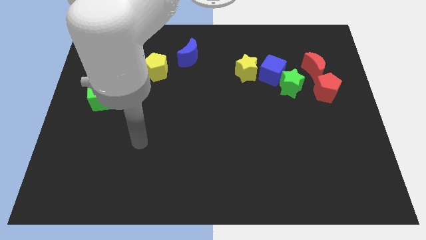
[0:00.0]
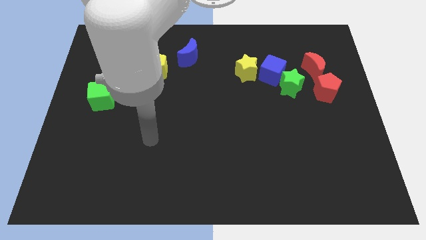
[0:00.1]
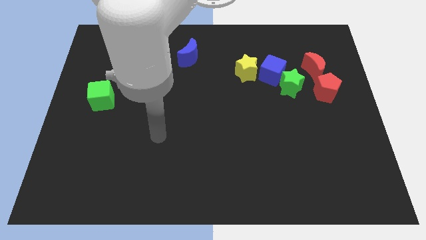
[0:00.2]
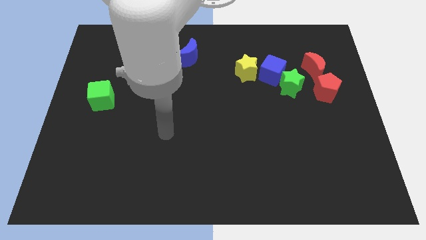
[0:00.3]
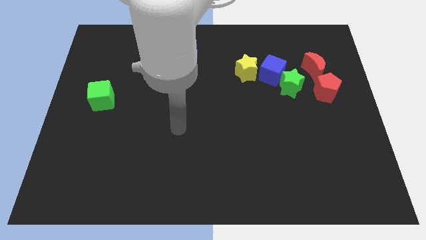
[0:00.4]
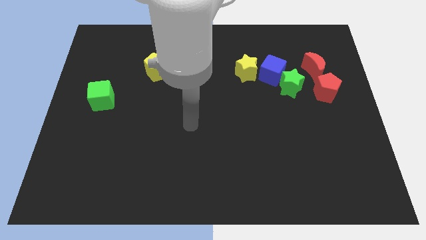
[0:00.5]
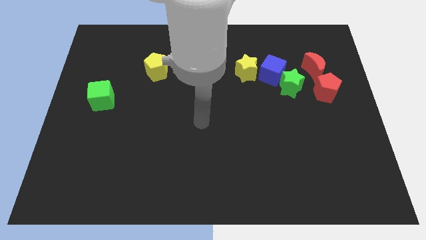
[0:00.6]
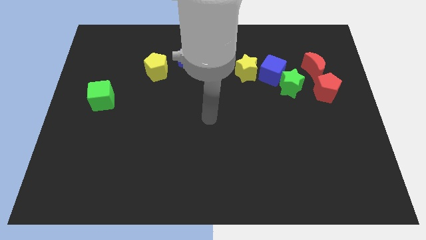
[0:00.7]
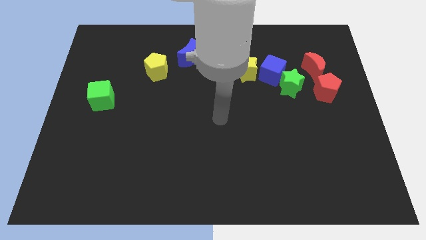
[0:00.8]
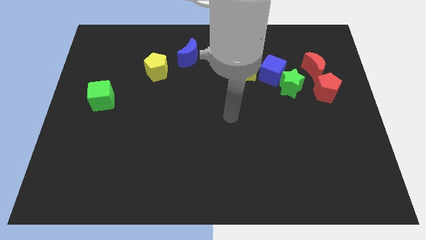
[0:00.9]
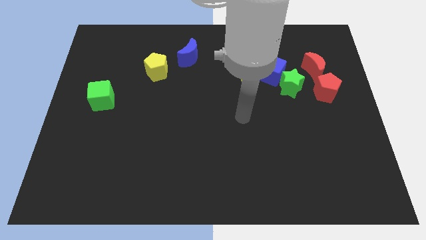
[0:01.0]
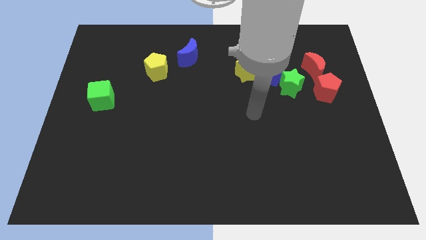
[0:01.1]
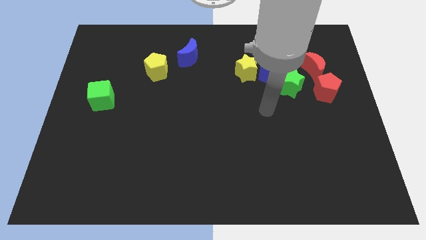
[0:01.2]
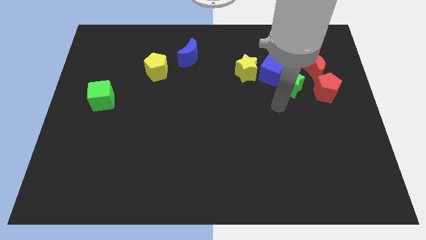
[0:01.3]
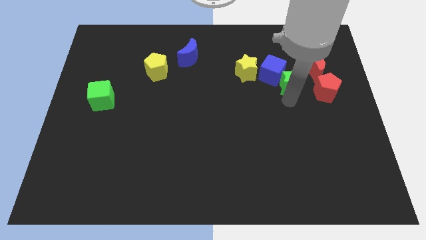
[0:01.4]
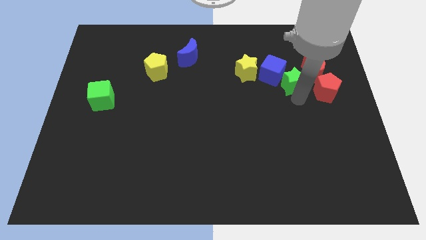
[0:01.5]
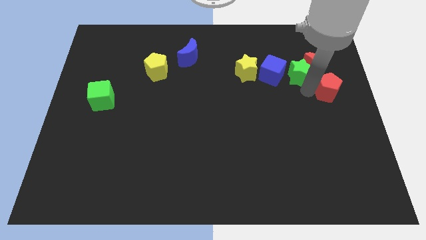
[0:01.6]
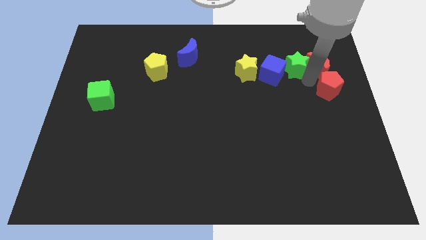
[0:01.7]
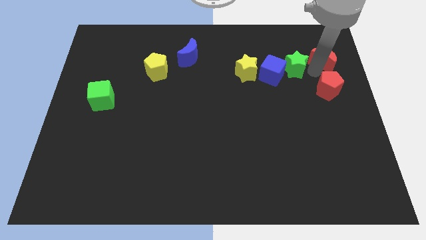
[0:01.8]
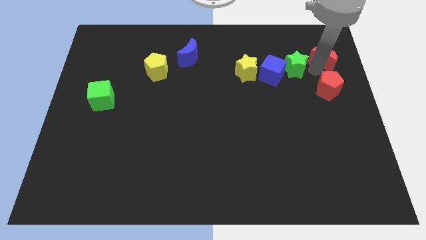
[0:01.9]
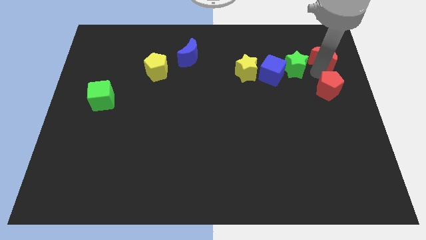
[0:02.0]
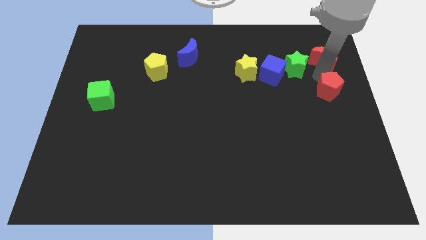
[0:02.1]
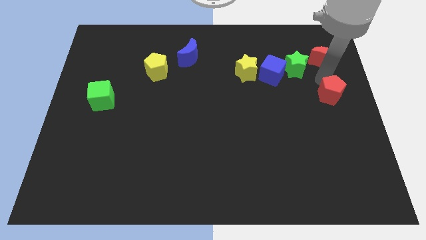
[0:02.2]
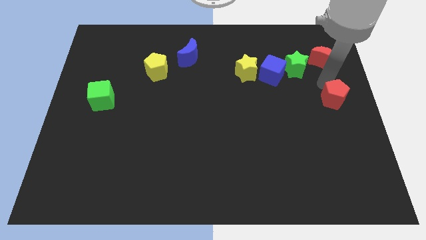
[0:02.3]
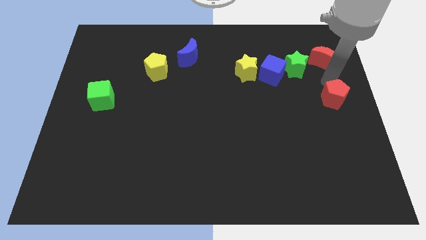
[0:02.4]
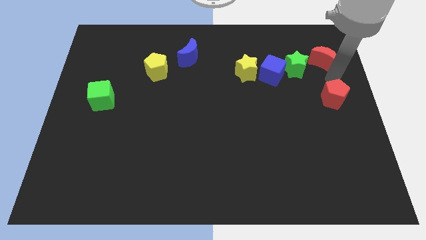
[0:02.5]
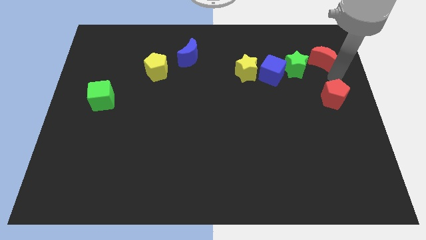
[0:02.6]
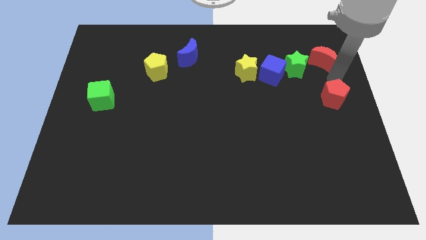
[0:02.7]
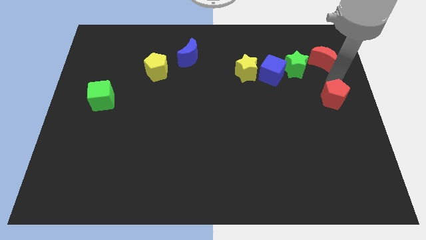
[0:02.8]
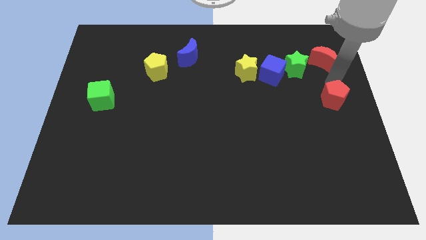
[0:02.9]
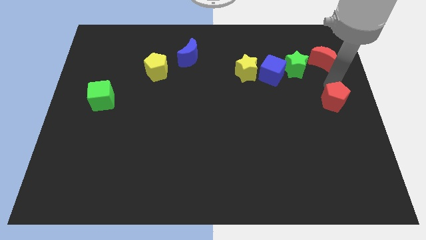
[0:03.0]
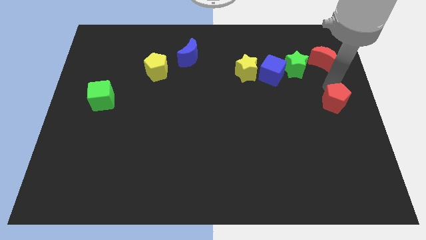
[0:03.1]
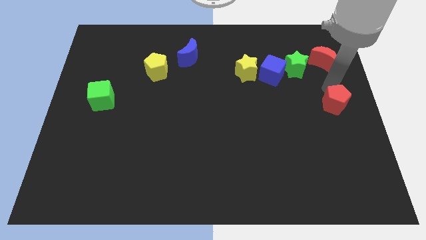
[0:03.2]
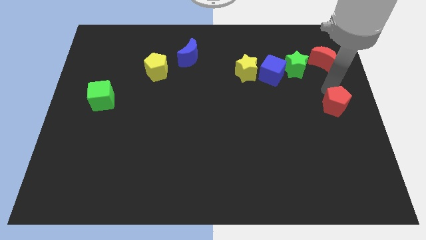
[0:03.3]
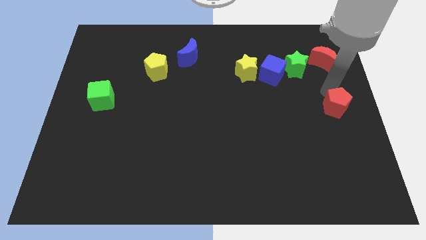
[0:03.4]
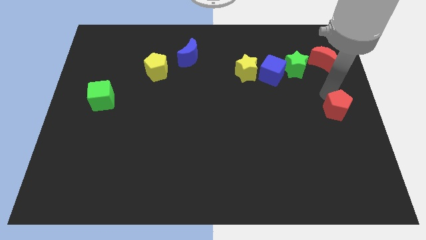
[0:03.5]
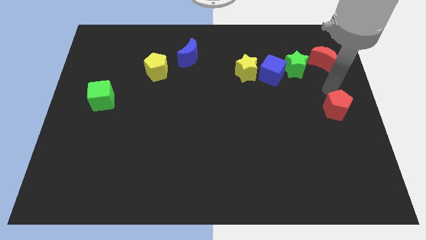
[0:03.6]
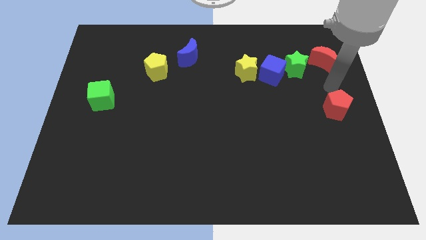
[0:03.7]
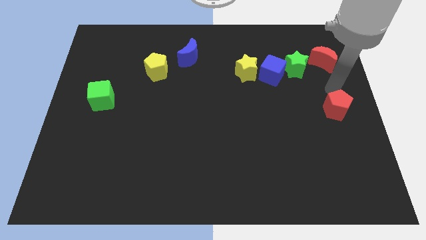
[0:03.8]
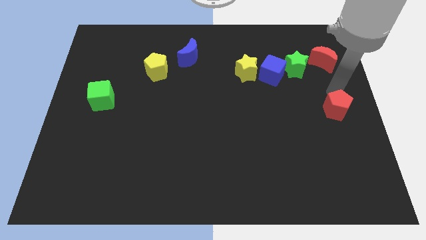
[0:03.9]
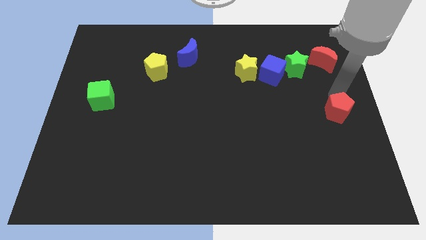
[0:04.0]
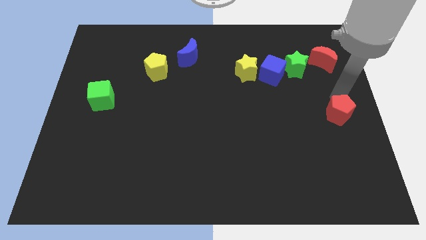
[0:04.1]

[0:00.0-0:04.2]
push the red pentagon a bit down

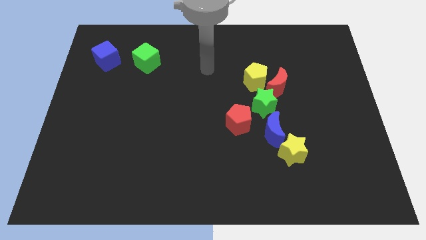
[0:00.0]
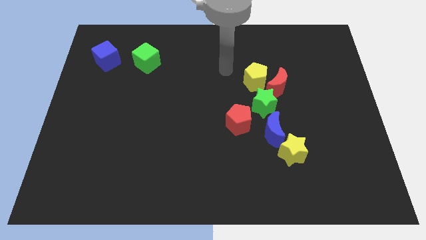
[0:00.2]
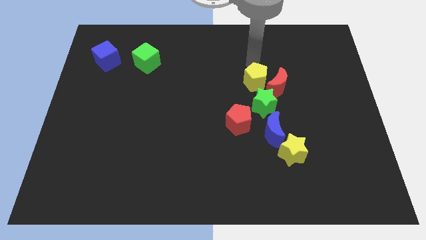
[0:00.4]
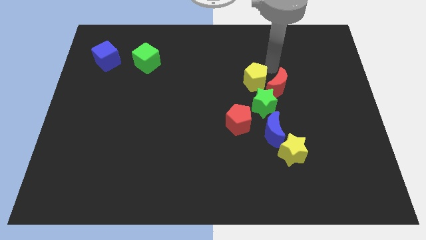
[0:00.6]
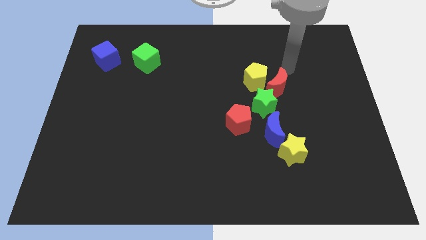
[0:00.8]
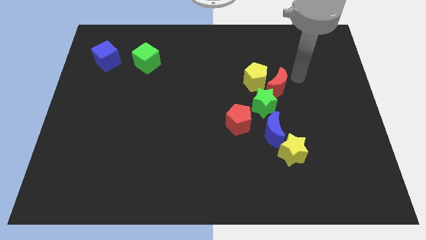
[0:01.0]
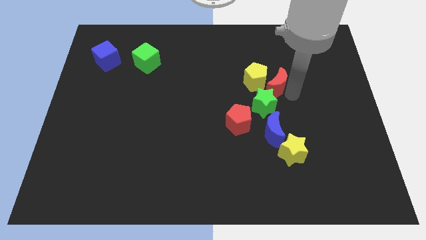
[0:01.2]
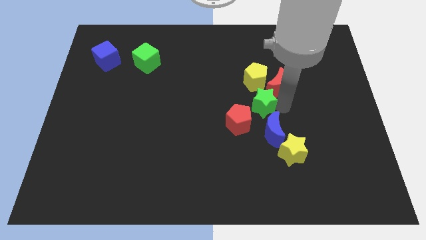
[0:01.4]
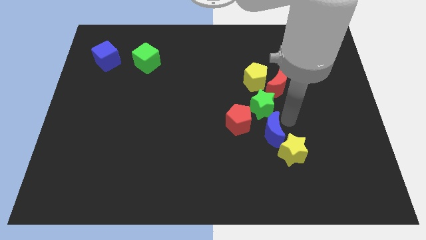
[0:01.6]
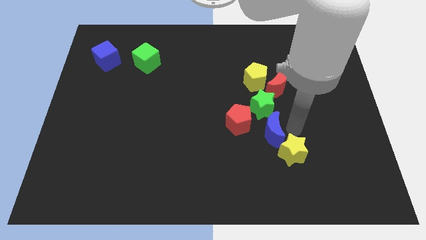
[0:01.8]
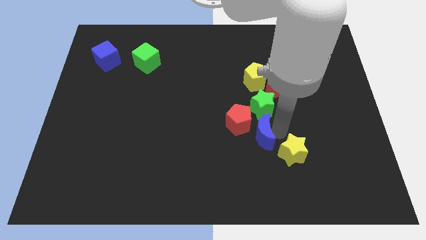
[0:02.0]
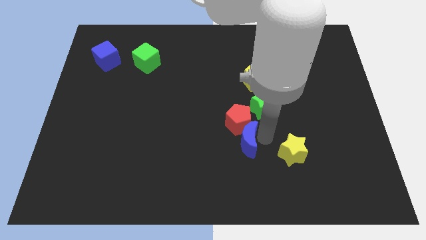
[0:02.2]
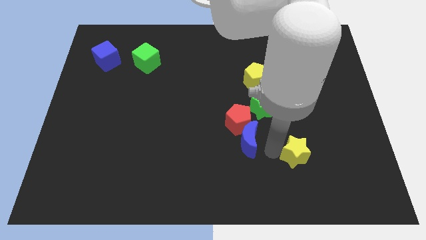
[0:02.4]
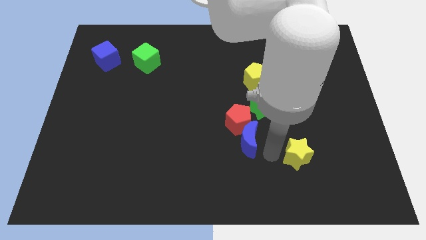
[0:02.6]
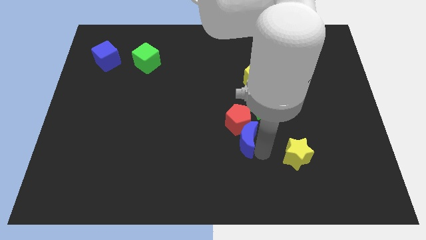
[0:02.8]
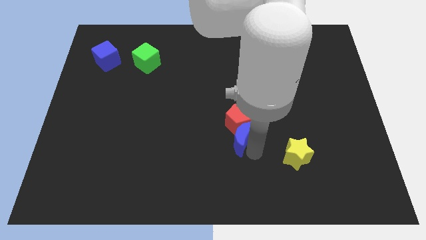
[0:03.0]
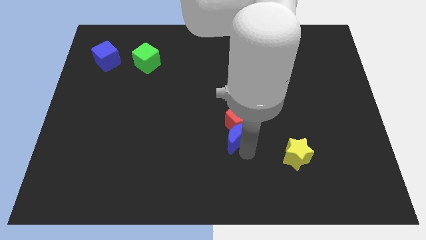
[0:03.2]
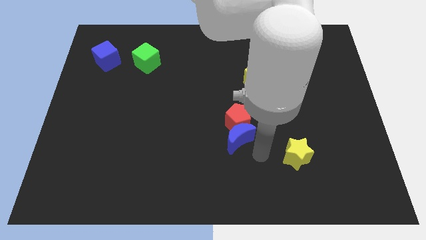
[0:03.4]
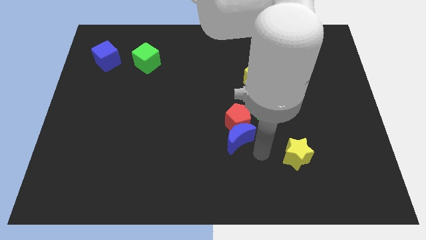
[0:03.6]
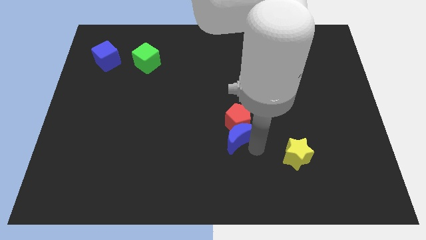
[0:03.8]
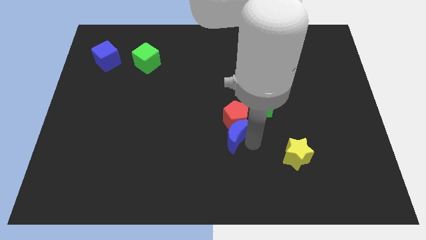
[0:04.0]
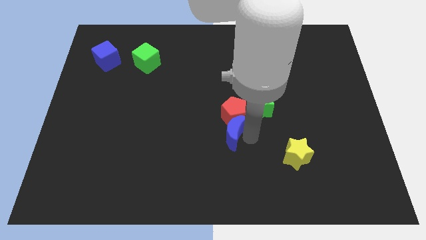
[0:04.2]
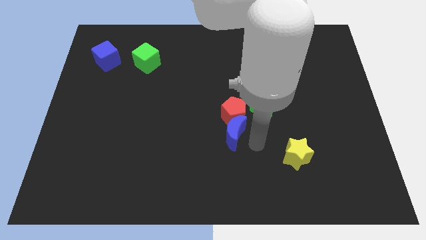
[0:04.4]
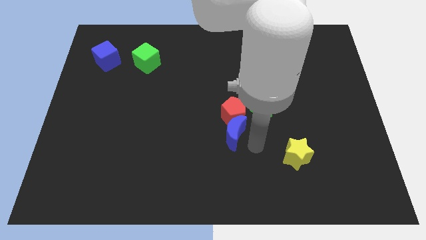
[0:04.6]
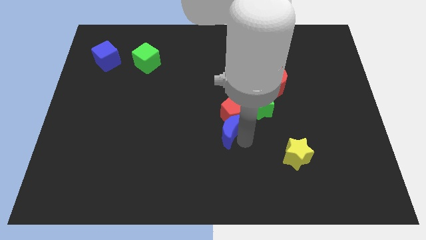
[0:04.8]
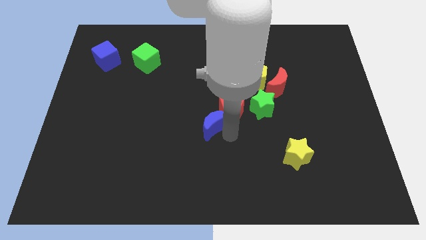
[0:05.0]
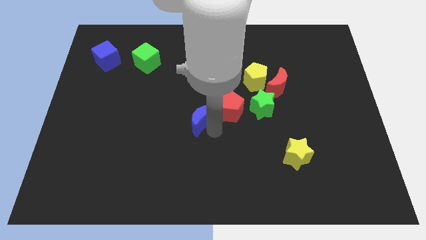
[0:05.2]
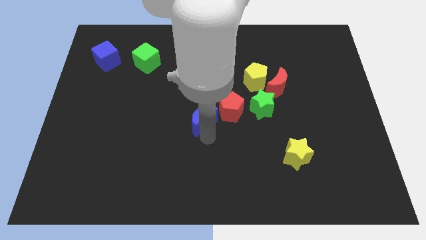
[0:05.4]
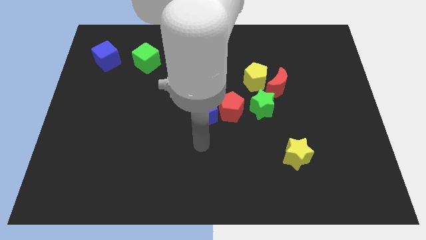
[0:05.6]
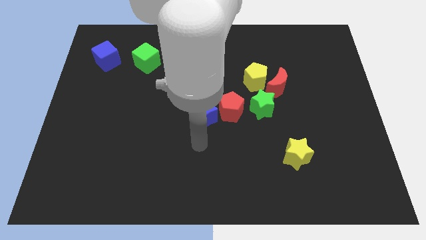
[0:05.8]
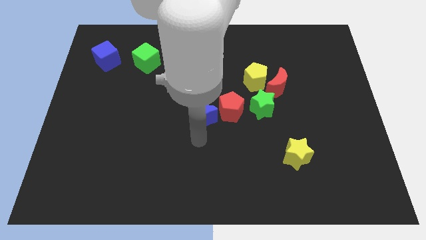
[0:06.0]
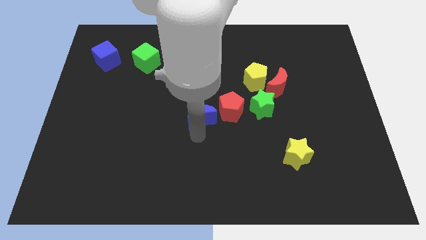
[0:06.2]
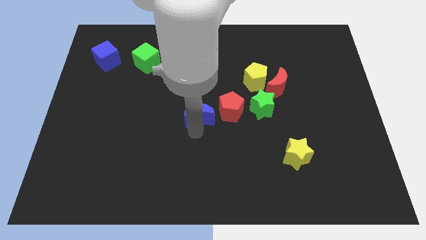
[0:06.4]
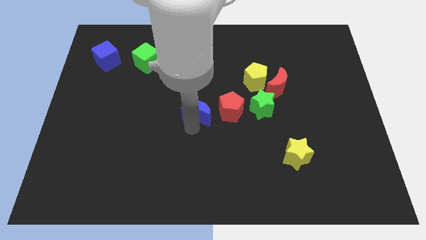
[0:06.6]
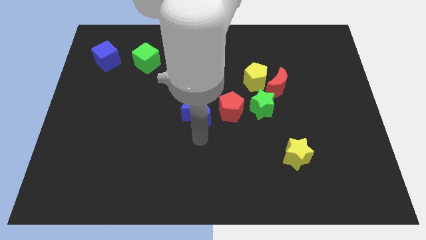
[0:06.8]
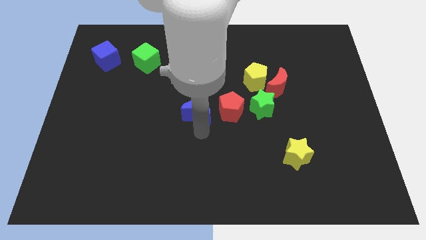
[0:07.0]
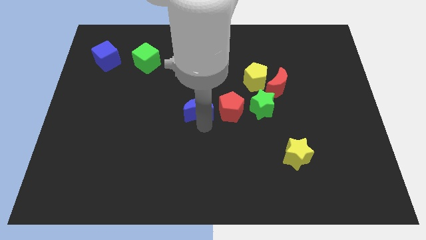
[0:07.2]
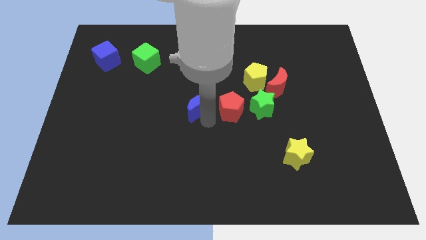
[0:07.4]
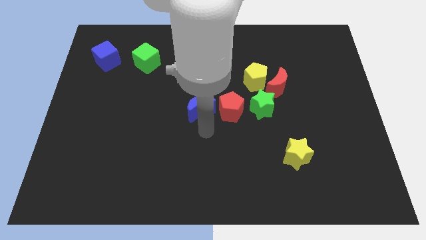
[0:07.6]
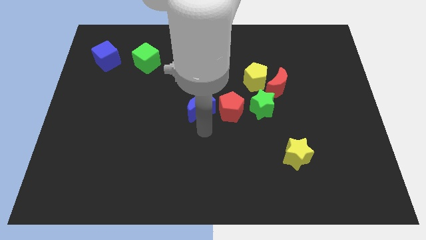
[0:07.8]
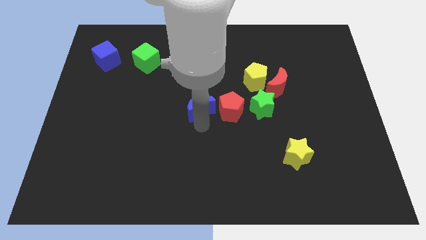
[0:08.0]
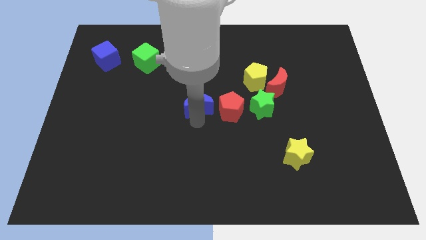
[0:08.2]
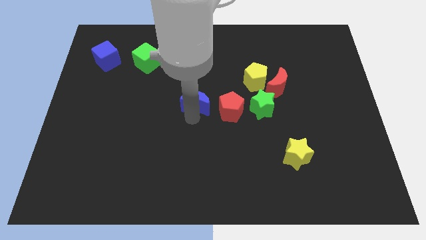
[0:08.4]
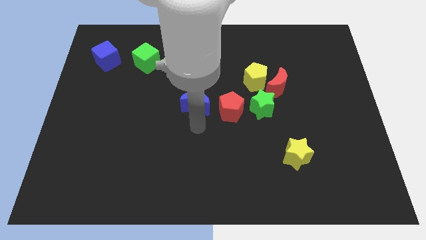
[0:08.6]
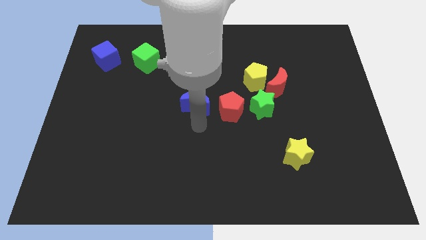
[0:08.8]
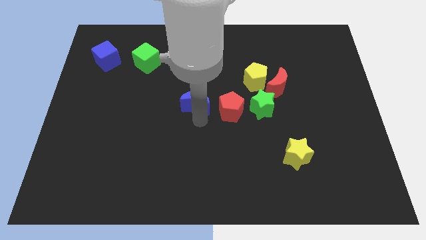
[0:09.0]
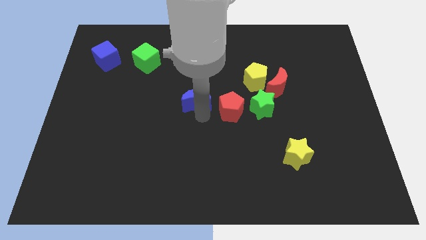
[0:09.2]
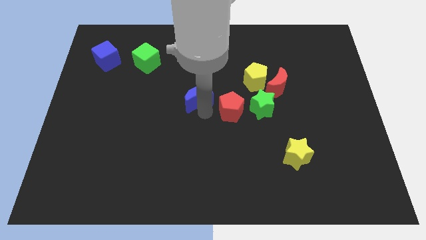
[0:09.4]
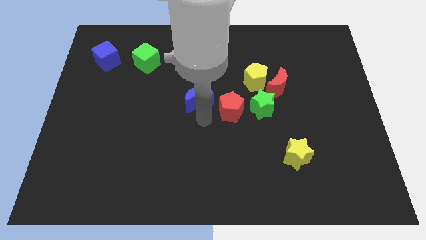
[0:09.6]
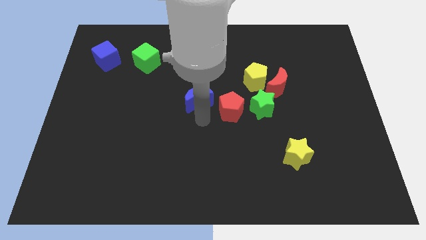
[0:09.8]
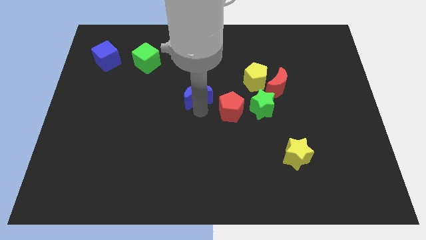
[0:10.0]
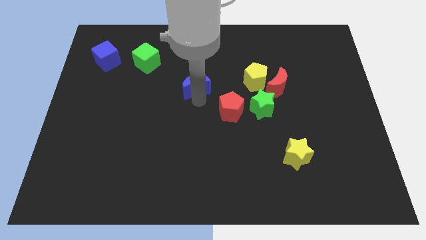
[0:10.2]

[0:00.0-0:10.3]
push the blue moon diagonally up and to the left
